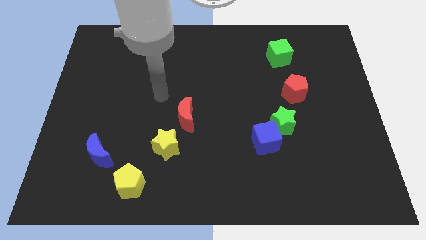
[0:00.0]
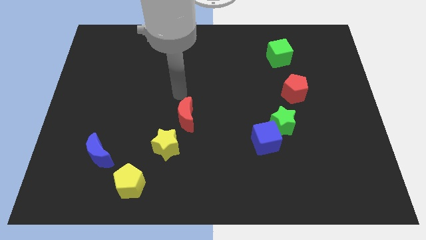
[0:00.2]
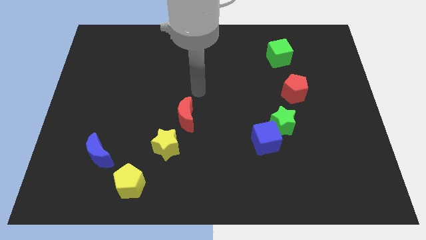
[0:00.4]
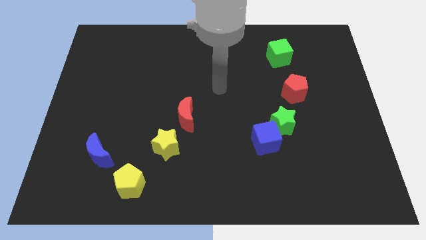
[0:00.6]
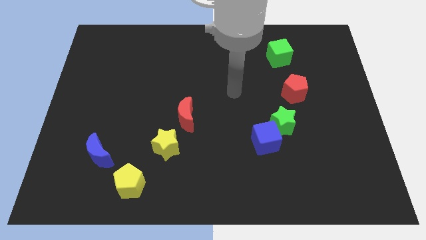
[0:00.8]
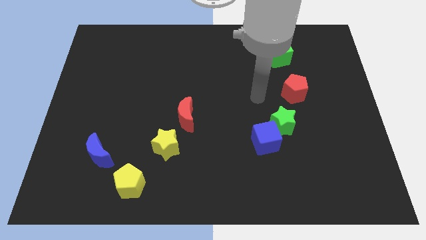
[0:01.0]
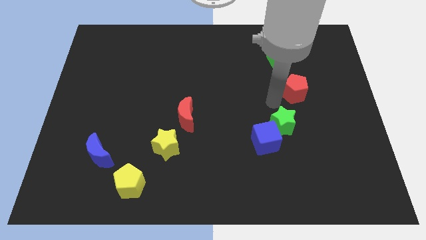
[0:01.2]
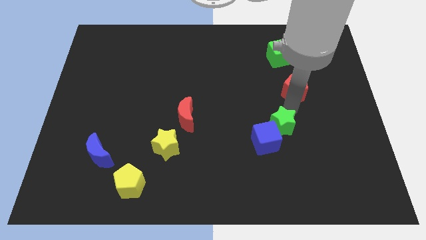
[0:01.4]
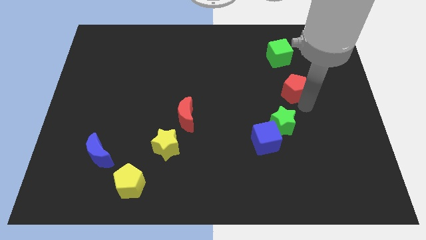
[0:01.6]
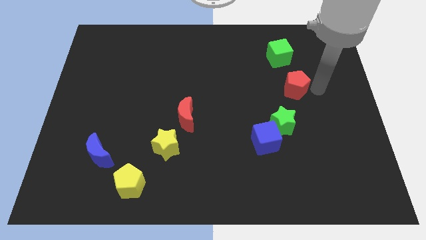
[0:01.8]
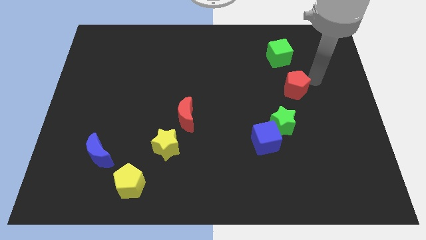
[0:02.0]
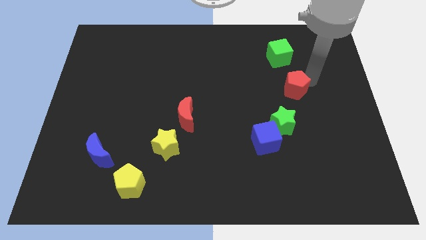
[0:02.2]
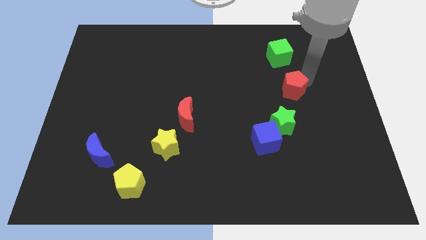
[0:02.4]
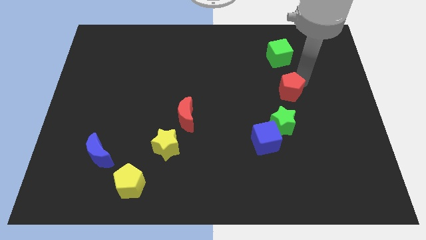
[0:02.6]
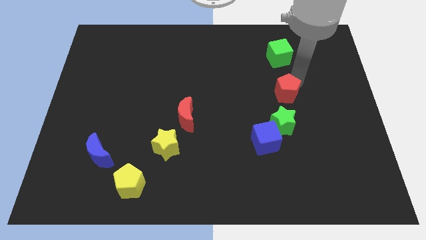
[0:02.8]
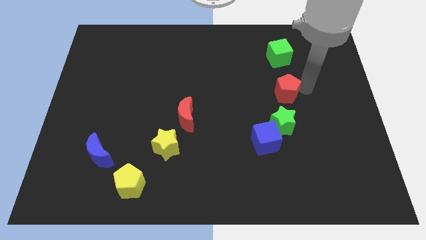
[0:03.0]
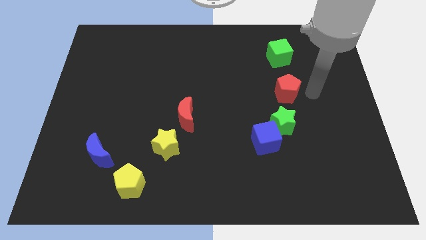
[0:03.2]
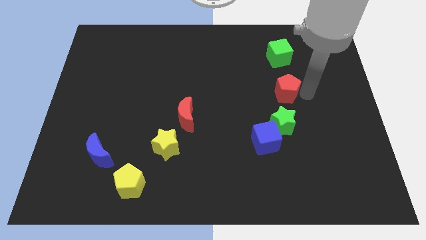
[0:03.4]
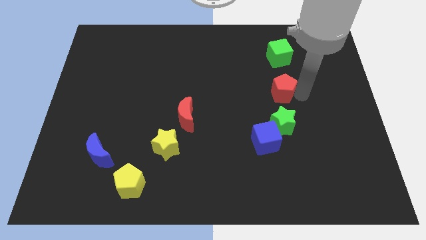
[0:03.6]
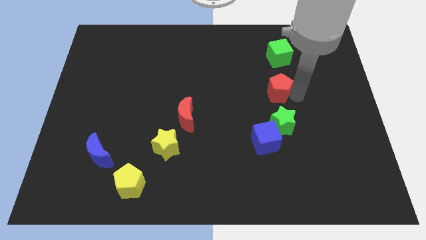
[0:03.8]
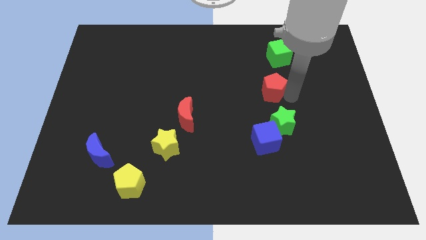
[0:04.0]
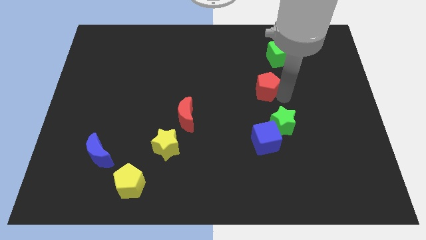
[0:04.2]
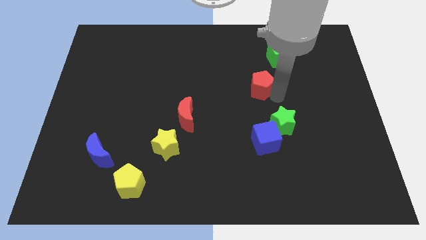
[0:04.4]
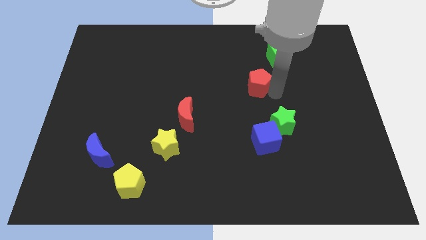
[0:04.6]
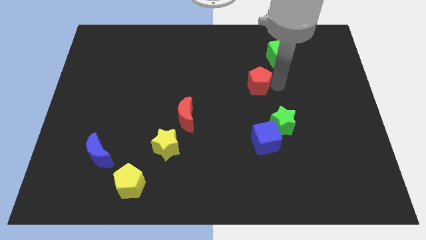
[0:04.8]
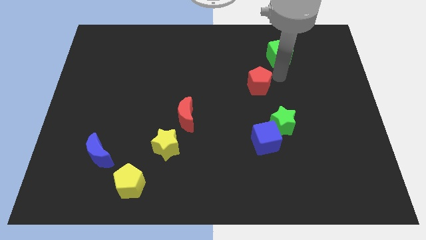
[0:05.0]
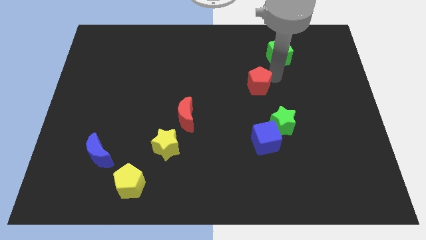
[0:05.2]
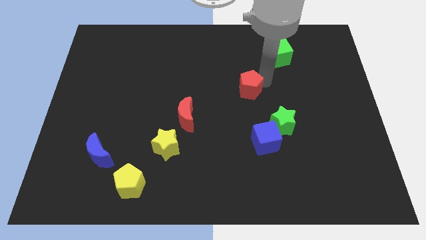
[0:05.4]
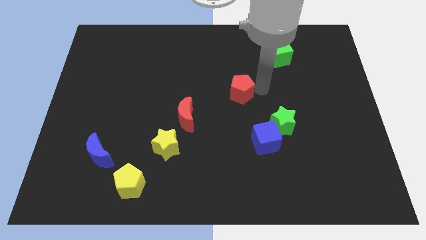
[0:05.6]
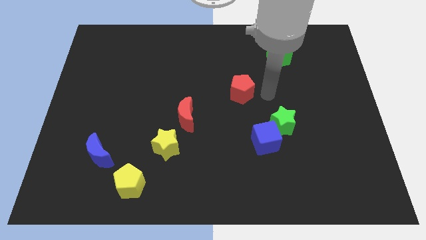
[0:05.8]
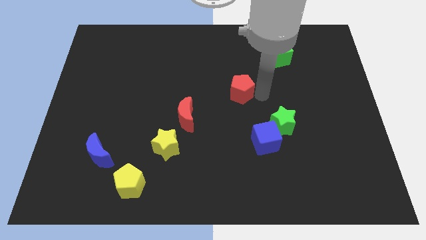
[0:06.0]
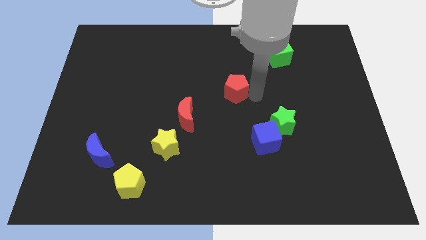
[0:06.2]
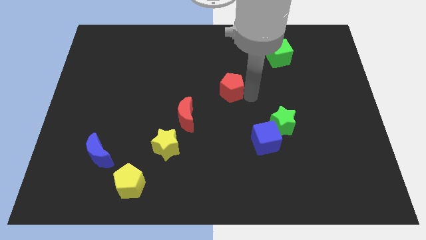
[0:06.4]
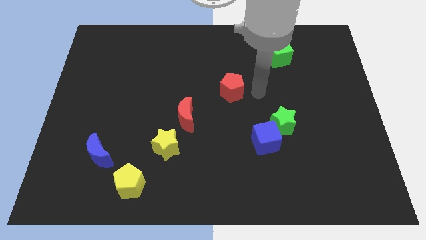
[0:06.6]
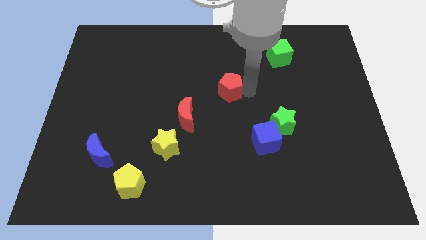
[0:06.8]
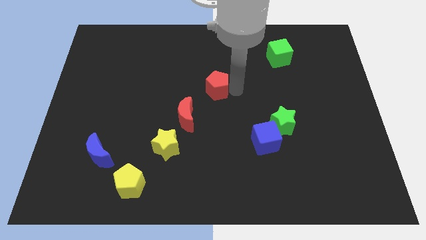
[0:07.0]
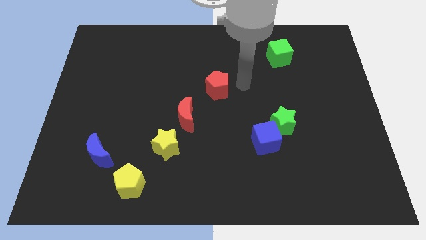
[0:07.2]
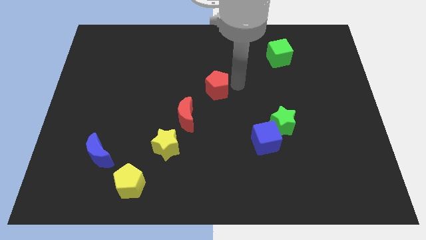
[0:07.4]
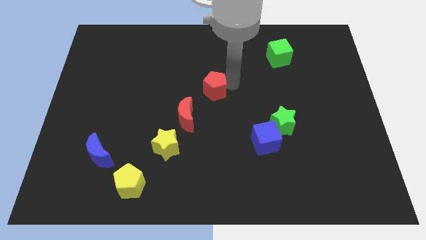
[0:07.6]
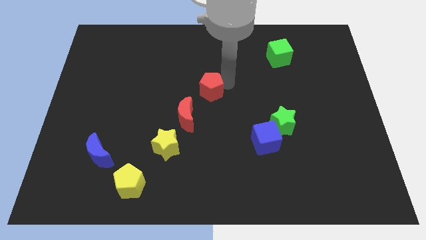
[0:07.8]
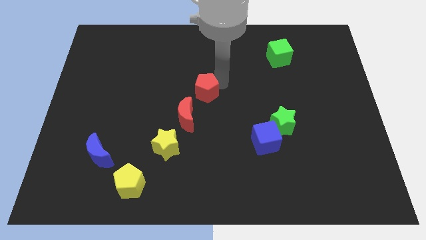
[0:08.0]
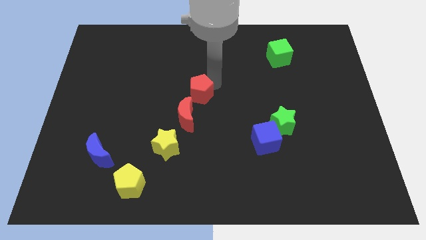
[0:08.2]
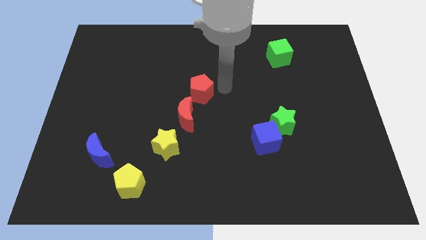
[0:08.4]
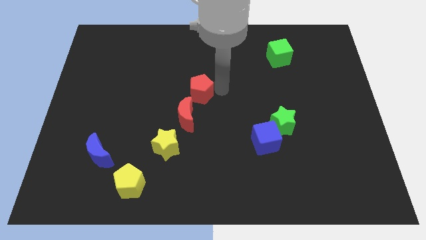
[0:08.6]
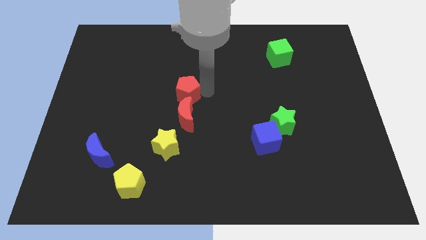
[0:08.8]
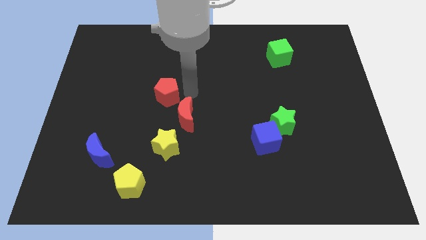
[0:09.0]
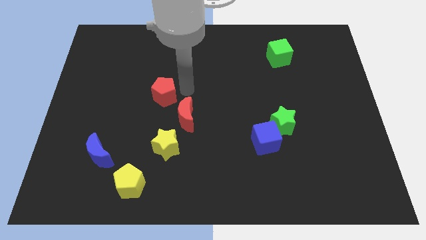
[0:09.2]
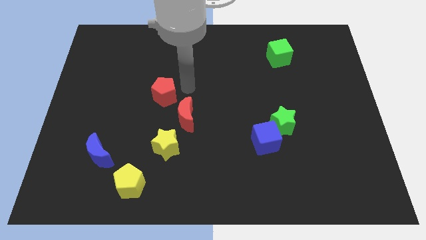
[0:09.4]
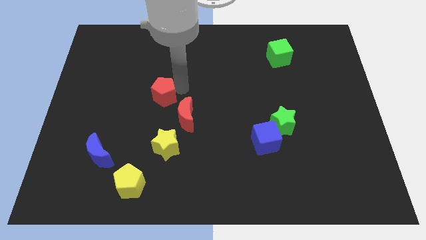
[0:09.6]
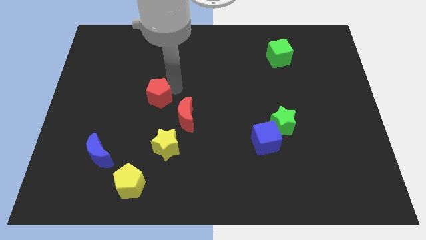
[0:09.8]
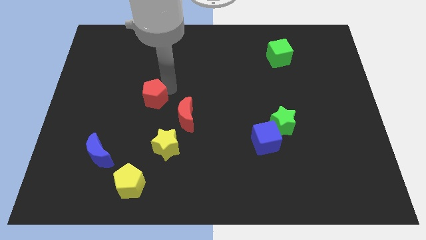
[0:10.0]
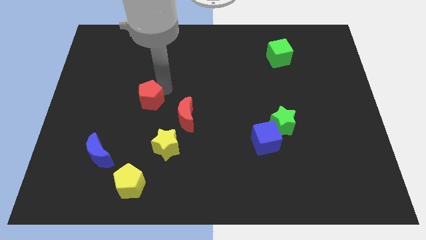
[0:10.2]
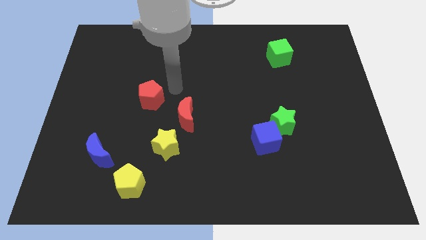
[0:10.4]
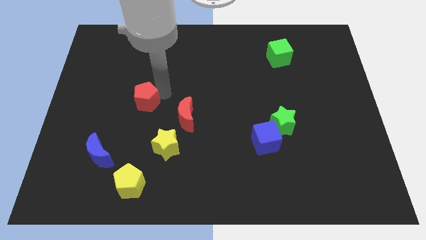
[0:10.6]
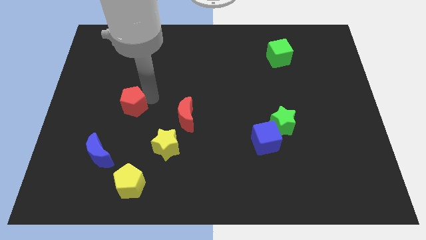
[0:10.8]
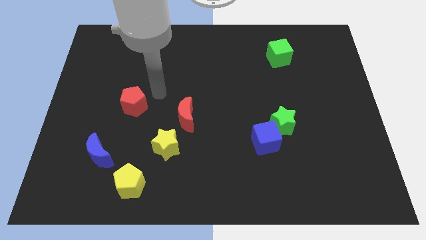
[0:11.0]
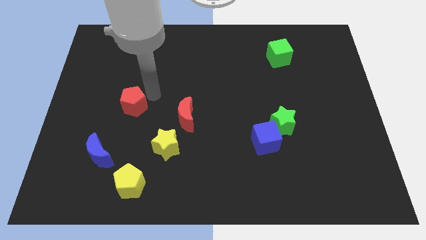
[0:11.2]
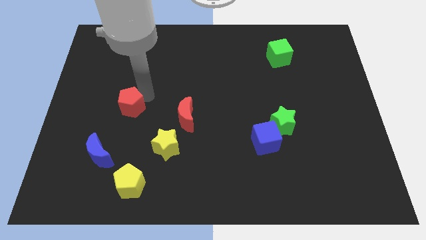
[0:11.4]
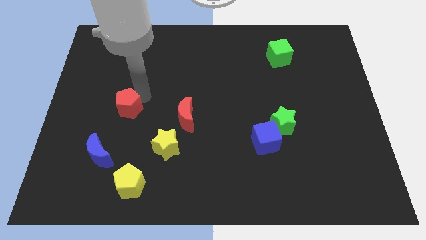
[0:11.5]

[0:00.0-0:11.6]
move the red pentagon to the top of the blue moon
